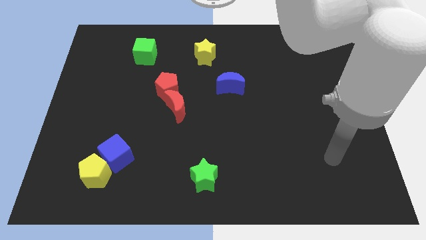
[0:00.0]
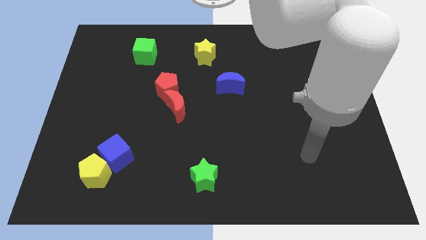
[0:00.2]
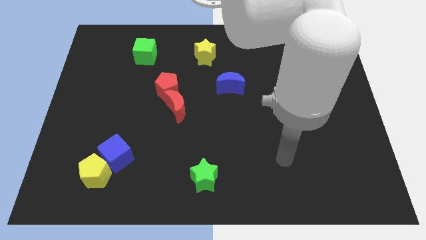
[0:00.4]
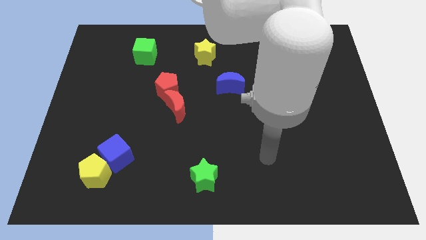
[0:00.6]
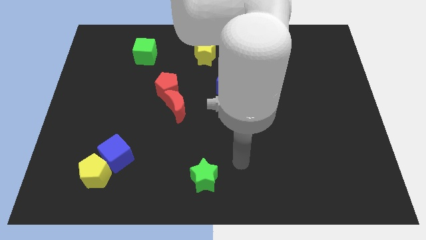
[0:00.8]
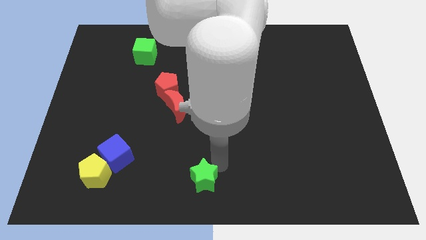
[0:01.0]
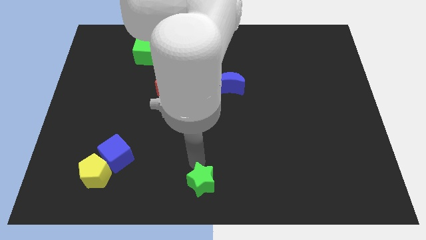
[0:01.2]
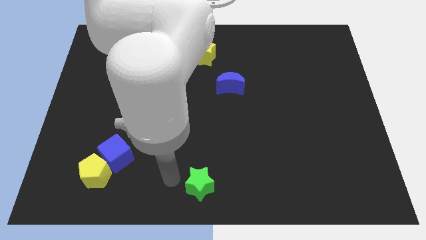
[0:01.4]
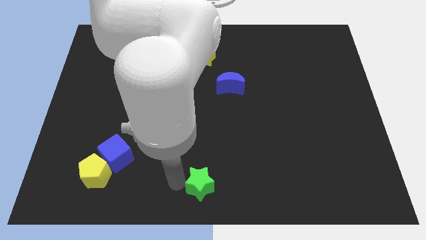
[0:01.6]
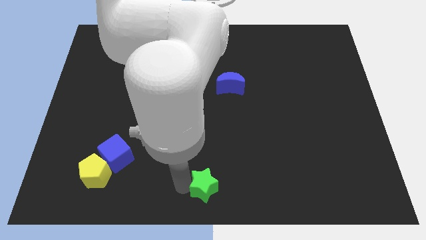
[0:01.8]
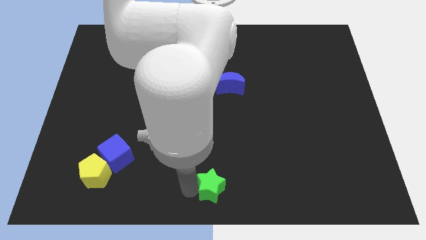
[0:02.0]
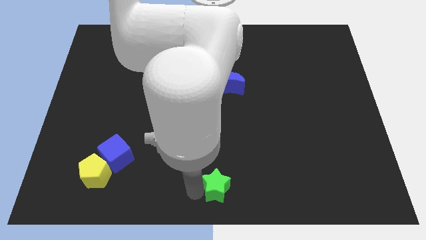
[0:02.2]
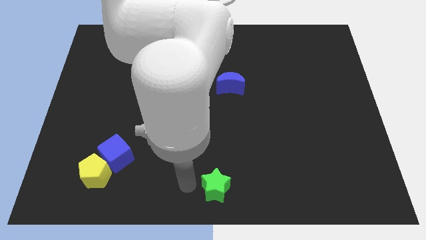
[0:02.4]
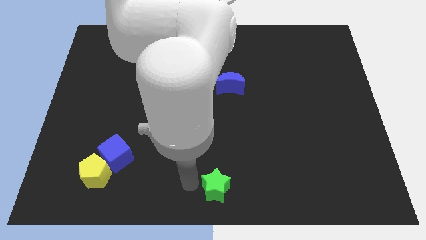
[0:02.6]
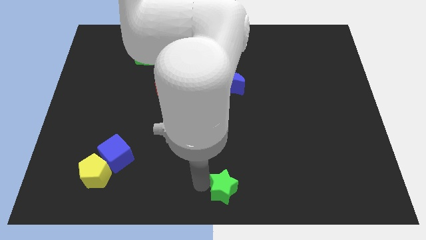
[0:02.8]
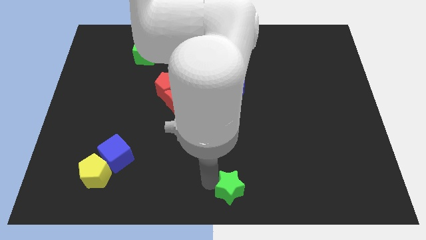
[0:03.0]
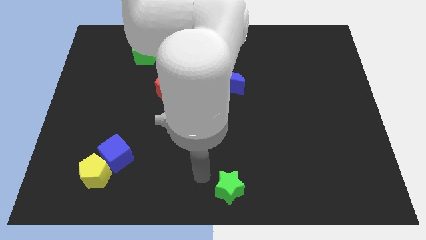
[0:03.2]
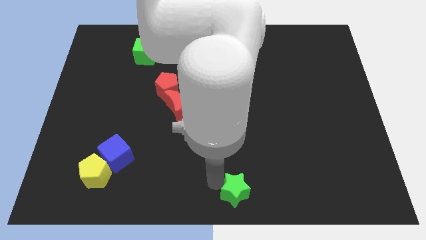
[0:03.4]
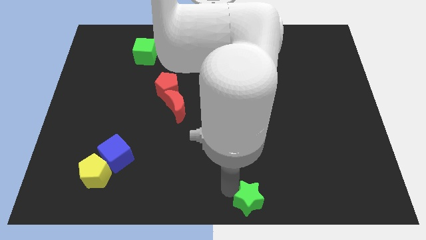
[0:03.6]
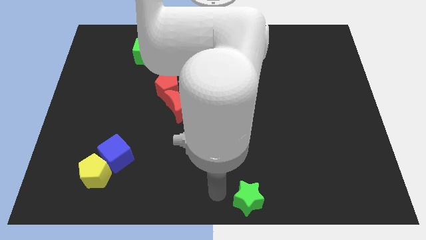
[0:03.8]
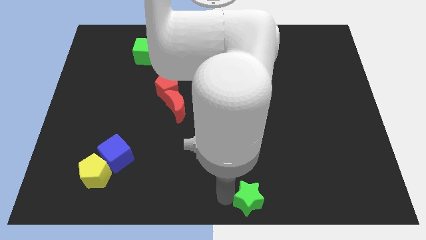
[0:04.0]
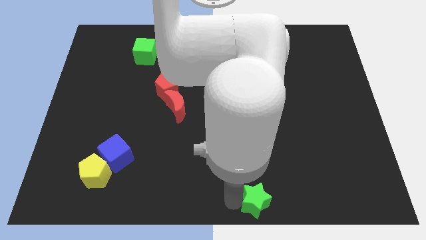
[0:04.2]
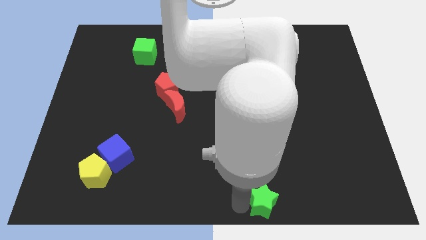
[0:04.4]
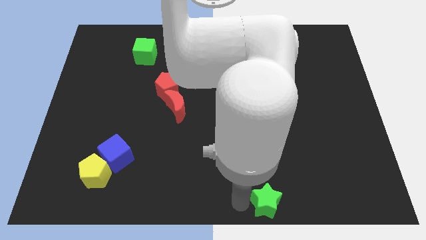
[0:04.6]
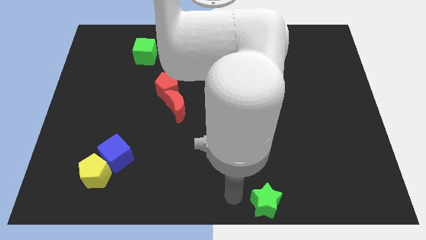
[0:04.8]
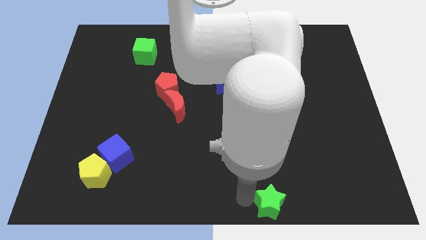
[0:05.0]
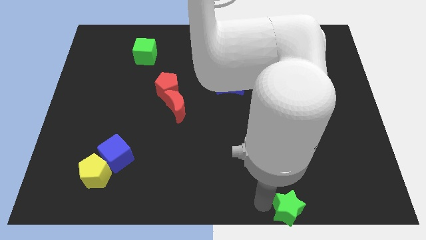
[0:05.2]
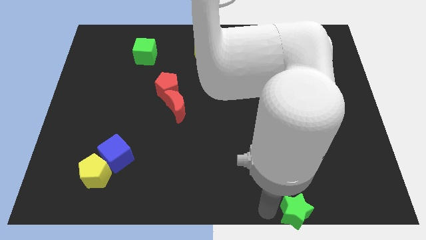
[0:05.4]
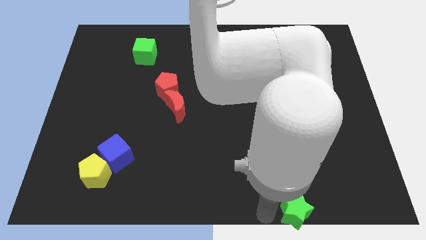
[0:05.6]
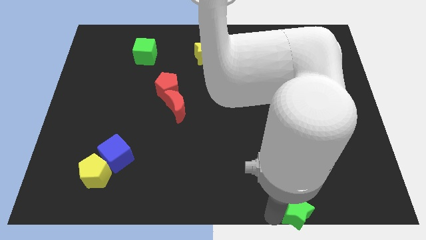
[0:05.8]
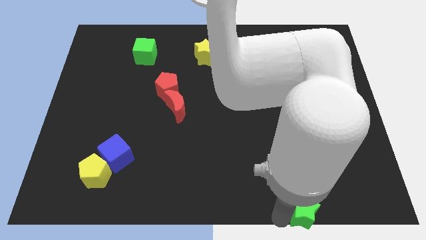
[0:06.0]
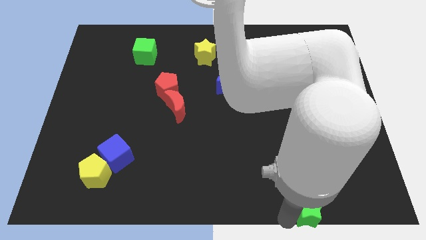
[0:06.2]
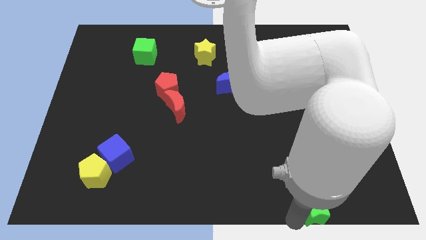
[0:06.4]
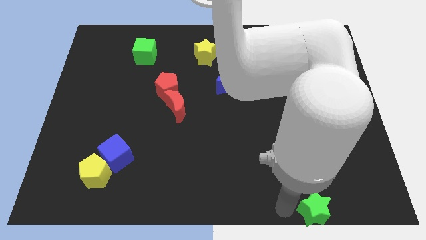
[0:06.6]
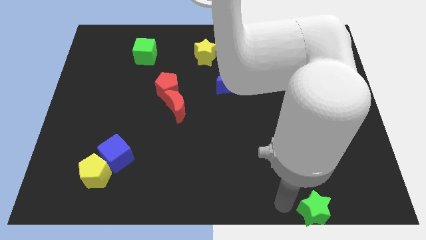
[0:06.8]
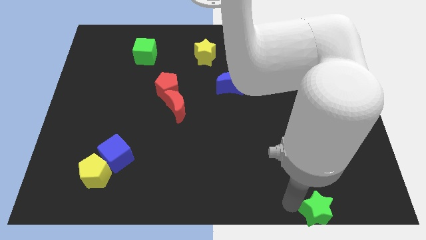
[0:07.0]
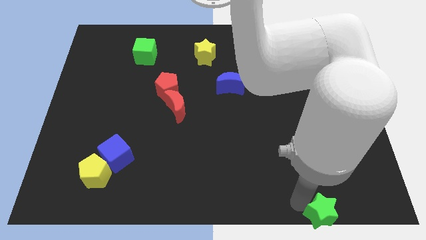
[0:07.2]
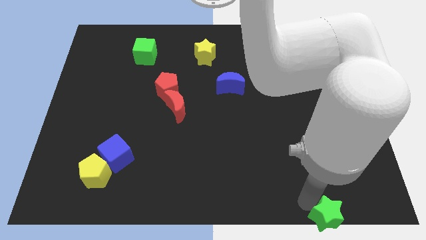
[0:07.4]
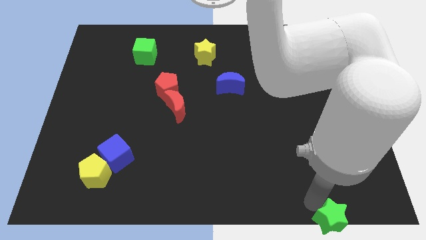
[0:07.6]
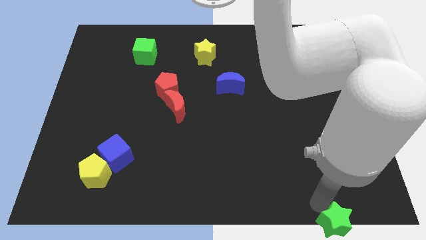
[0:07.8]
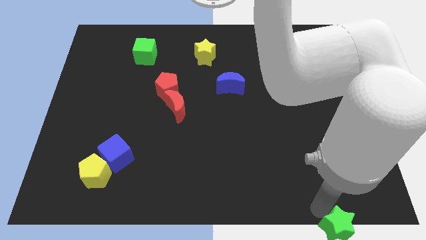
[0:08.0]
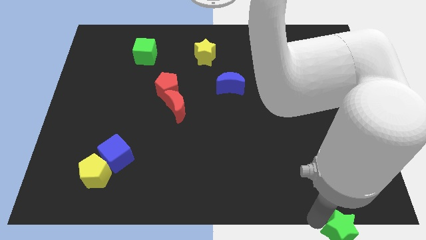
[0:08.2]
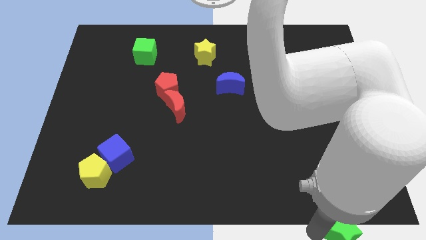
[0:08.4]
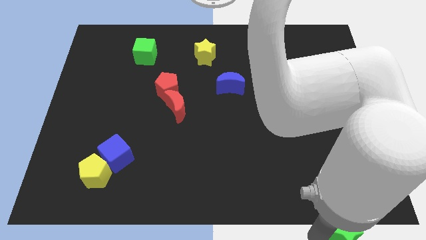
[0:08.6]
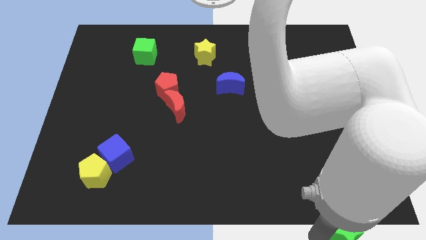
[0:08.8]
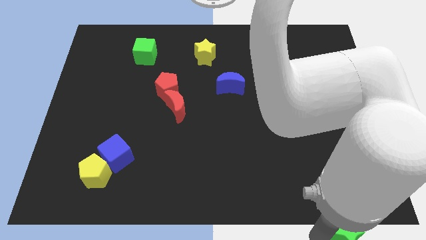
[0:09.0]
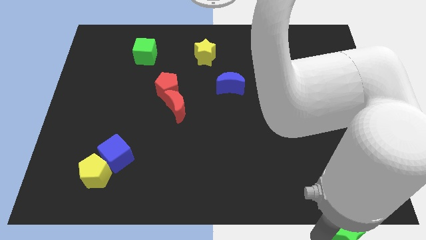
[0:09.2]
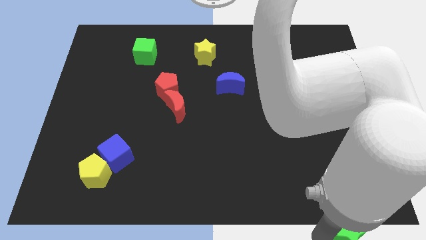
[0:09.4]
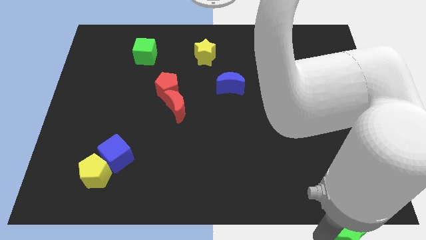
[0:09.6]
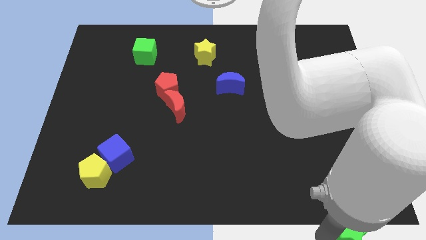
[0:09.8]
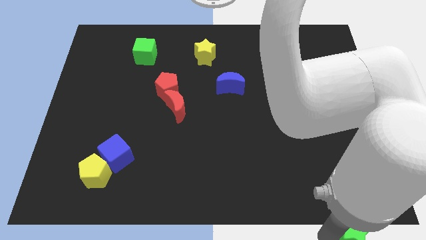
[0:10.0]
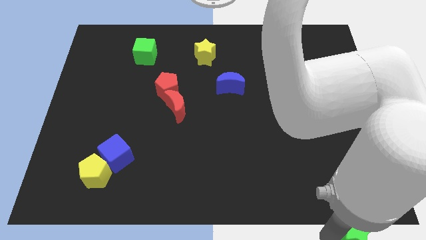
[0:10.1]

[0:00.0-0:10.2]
push the green star to the bottom right of the board

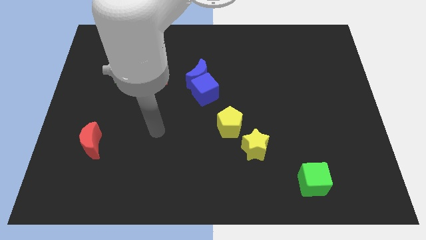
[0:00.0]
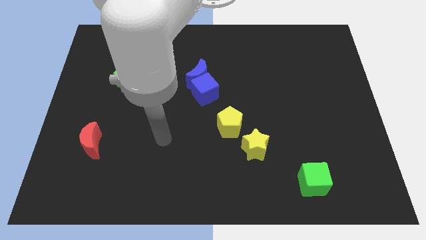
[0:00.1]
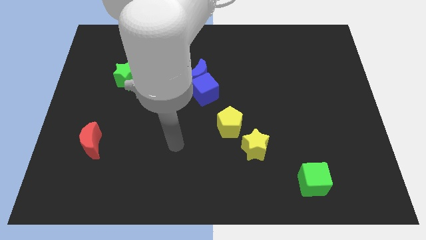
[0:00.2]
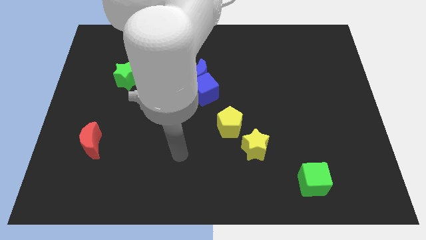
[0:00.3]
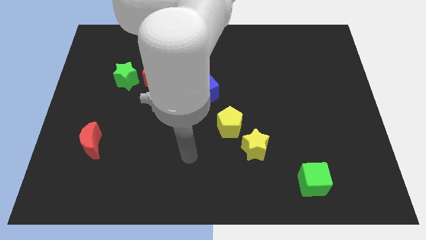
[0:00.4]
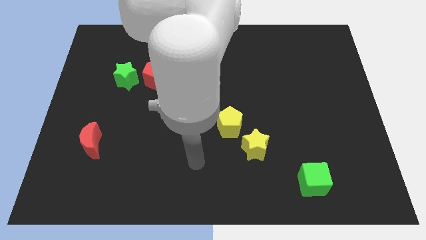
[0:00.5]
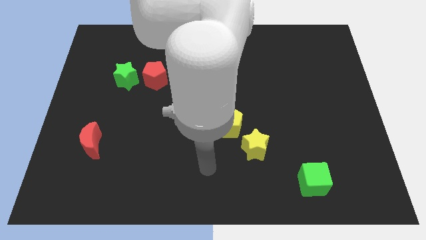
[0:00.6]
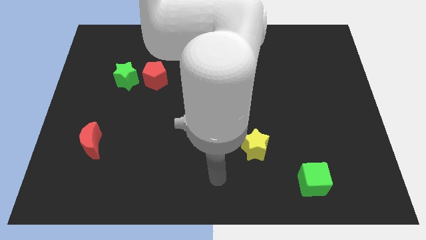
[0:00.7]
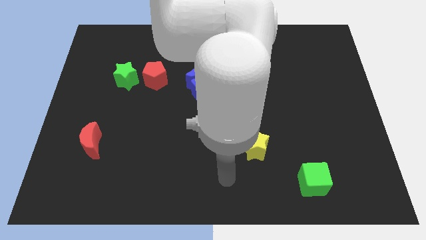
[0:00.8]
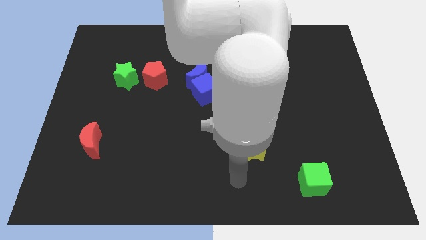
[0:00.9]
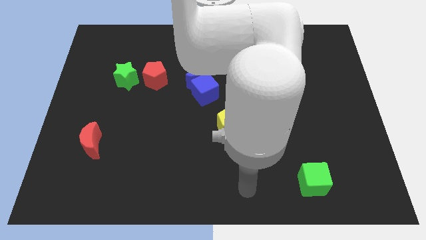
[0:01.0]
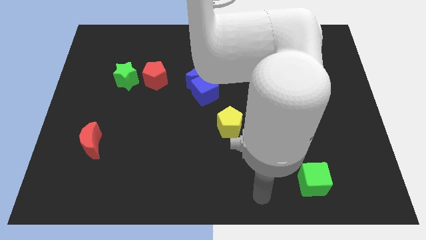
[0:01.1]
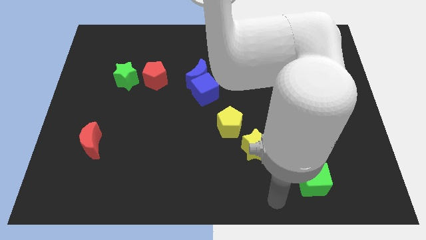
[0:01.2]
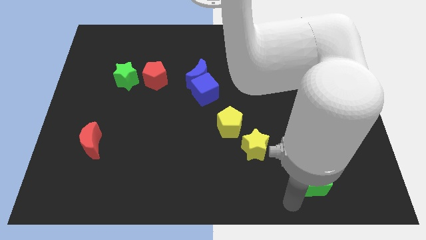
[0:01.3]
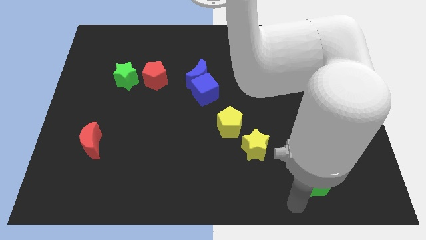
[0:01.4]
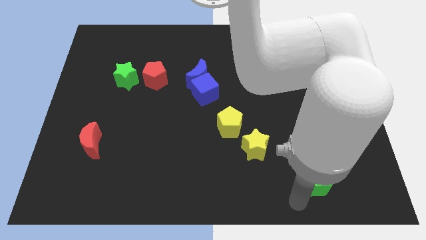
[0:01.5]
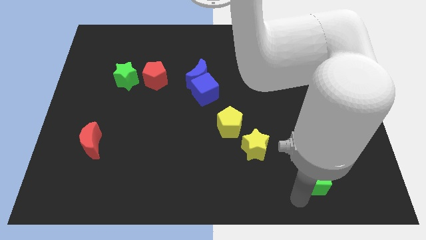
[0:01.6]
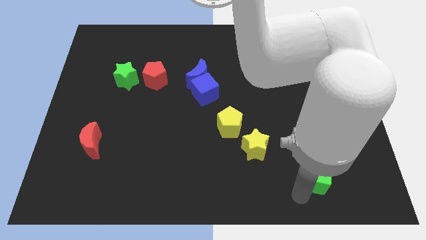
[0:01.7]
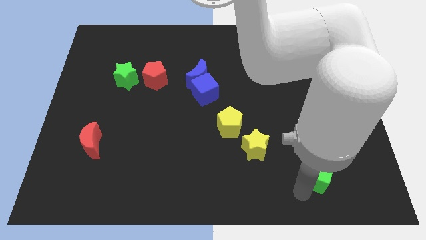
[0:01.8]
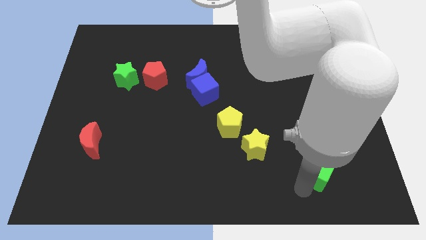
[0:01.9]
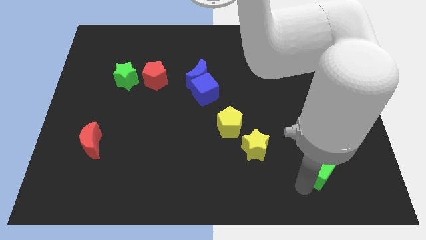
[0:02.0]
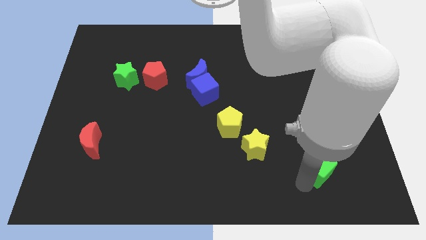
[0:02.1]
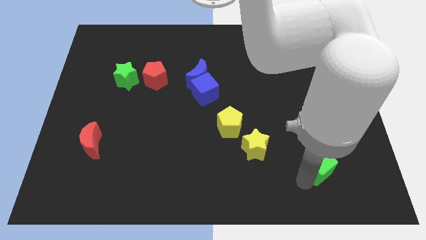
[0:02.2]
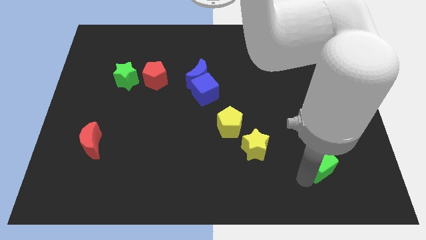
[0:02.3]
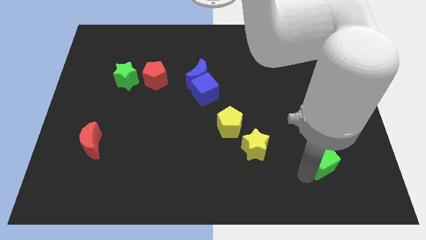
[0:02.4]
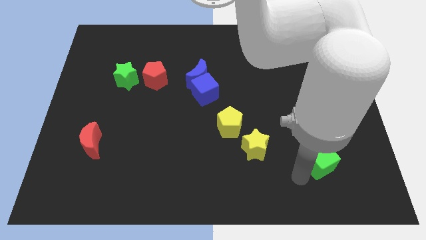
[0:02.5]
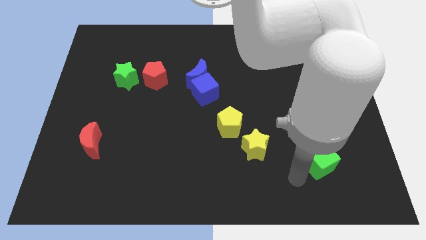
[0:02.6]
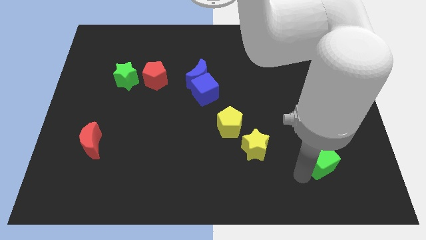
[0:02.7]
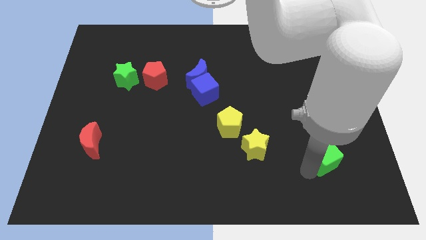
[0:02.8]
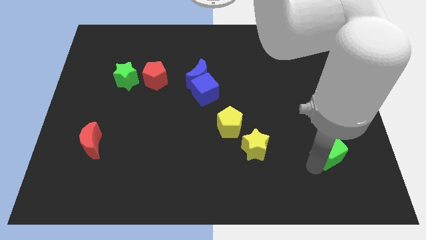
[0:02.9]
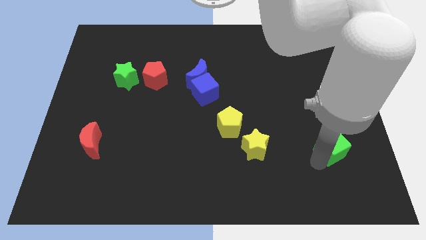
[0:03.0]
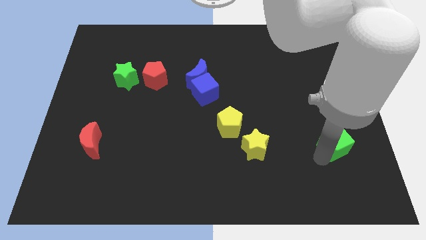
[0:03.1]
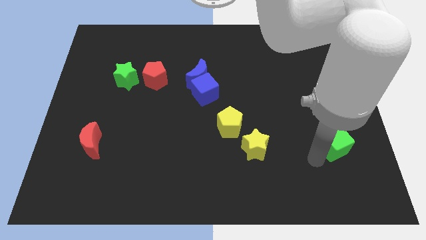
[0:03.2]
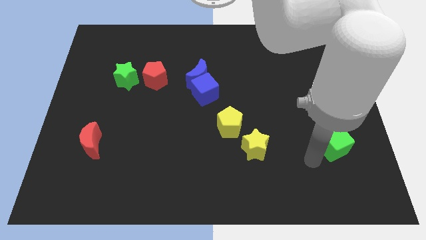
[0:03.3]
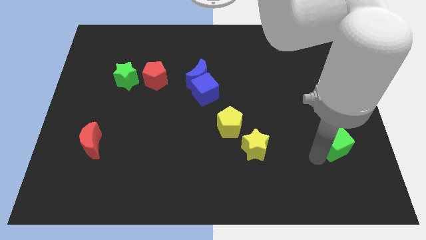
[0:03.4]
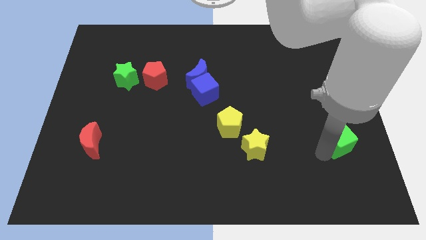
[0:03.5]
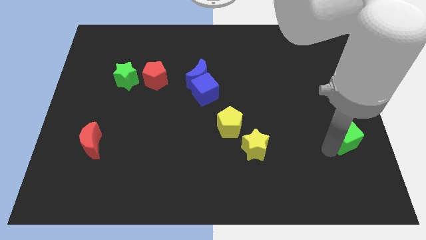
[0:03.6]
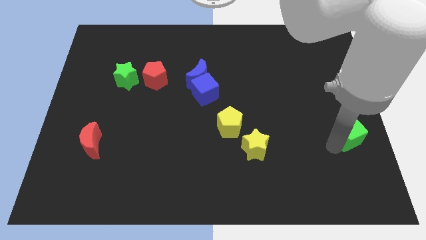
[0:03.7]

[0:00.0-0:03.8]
slide the green cube to the right side of the board
